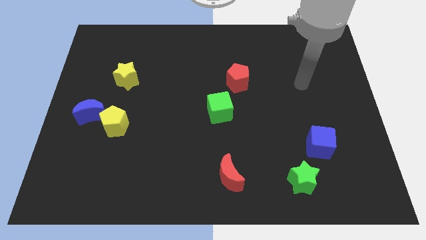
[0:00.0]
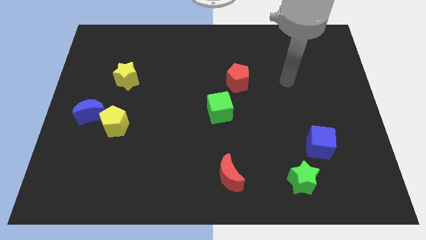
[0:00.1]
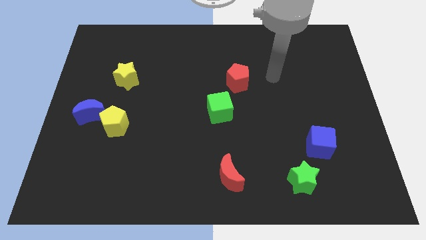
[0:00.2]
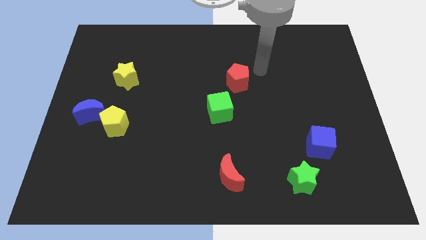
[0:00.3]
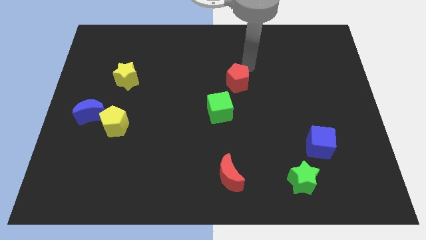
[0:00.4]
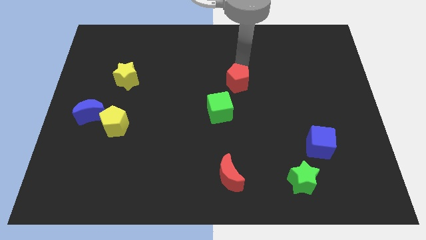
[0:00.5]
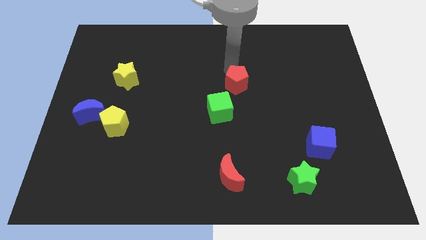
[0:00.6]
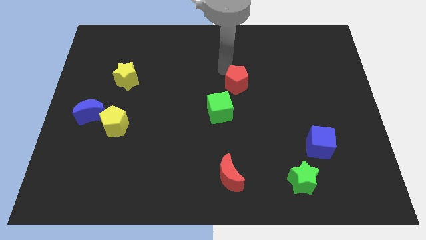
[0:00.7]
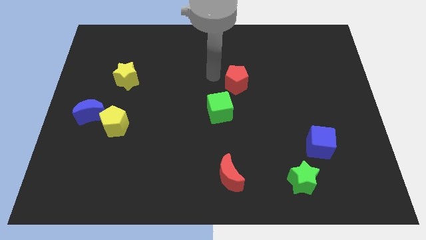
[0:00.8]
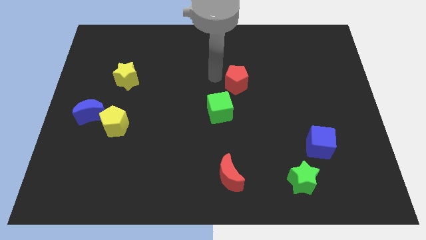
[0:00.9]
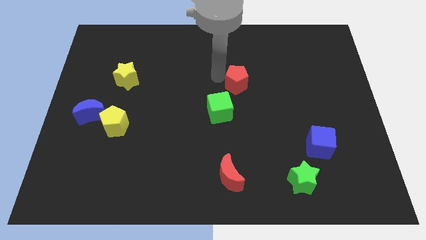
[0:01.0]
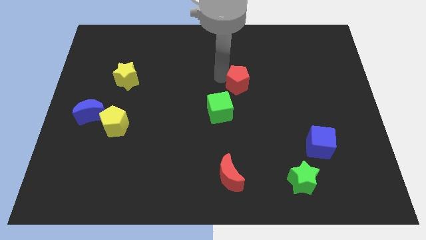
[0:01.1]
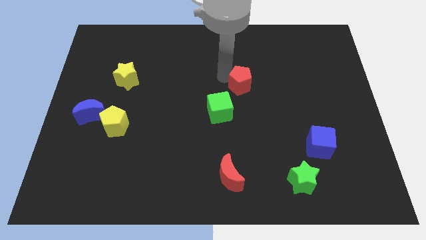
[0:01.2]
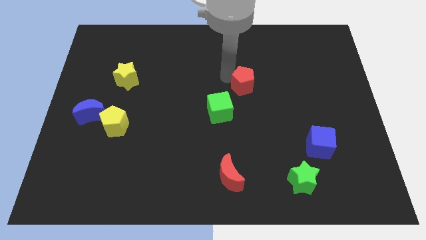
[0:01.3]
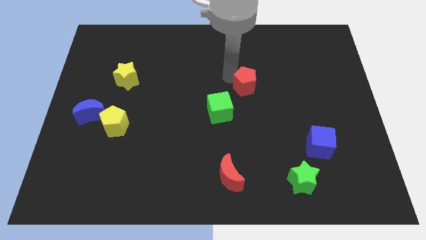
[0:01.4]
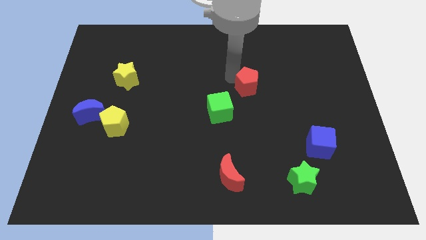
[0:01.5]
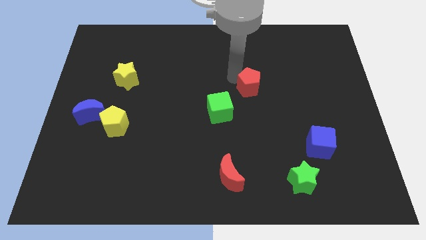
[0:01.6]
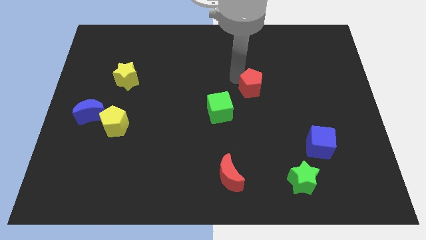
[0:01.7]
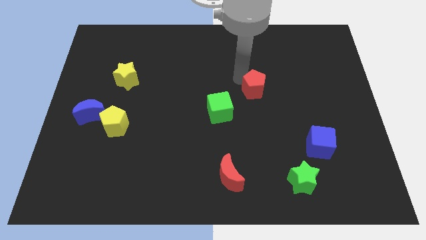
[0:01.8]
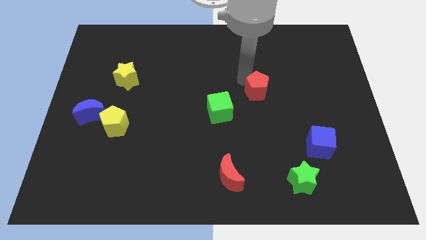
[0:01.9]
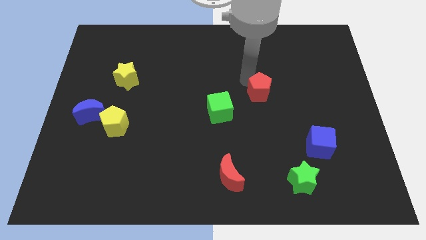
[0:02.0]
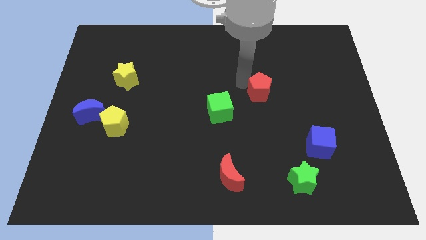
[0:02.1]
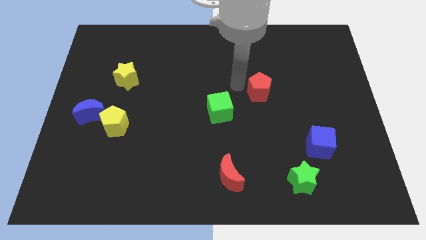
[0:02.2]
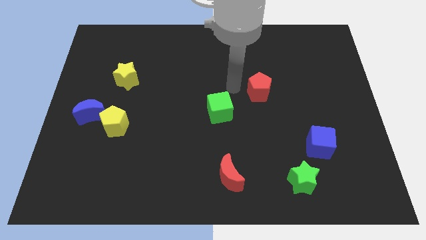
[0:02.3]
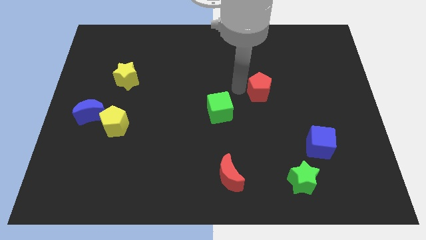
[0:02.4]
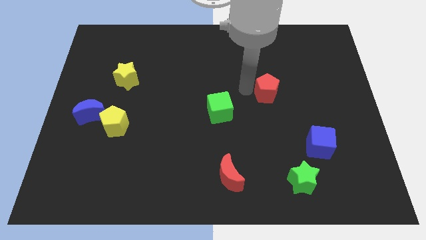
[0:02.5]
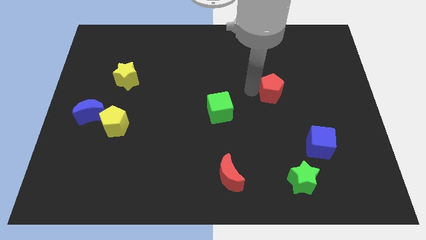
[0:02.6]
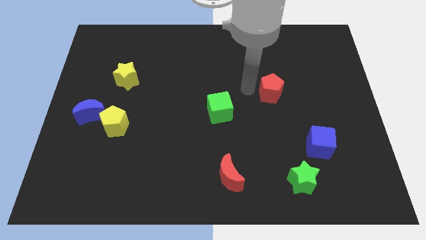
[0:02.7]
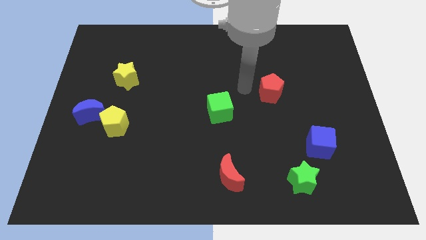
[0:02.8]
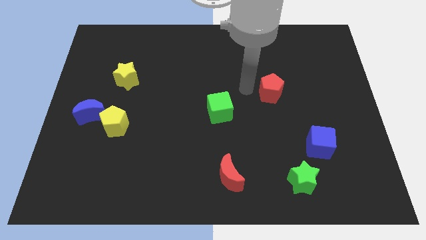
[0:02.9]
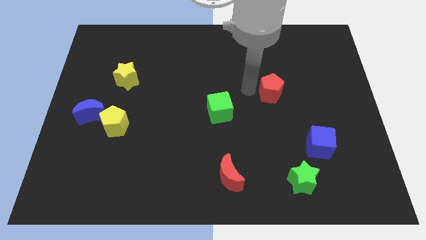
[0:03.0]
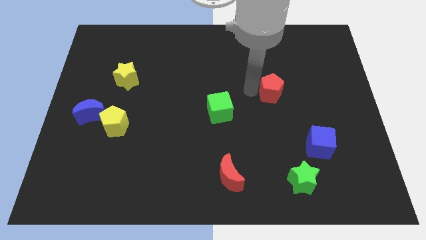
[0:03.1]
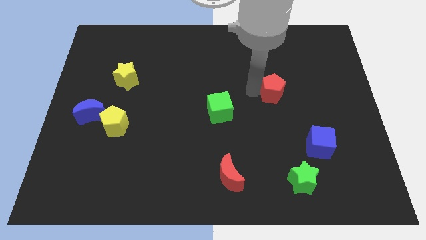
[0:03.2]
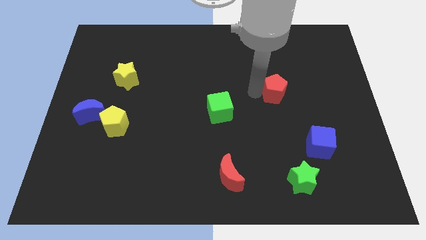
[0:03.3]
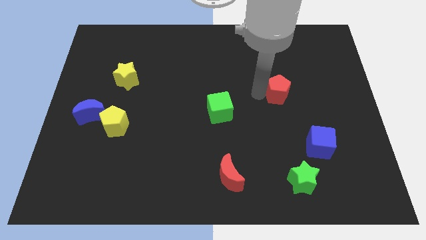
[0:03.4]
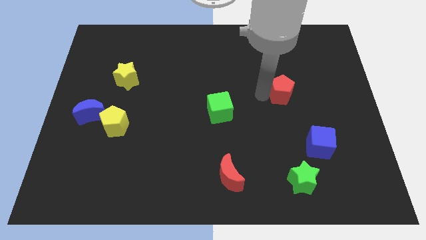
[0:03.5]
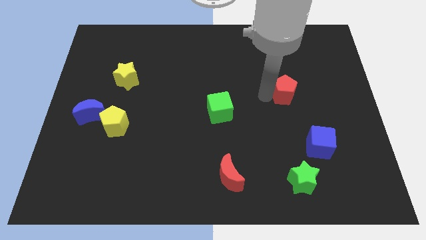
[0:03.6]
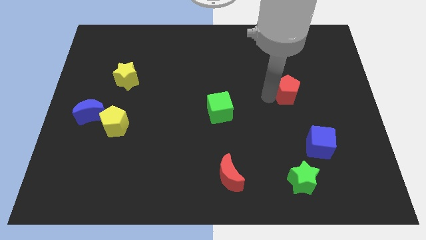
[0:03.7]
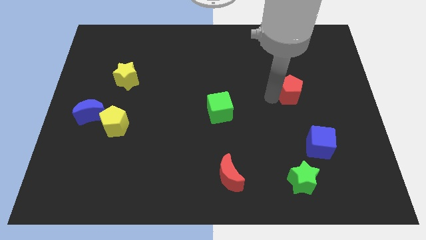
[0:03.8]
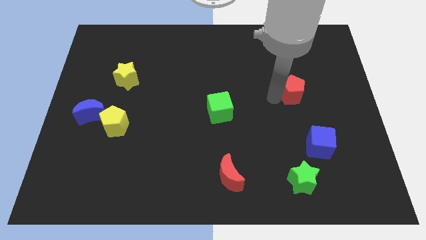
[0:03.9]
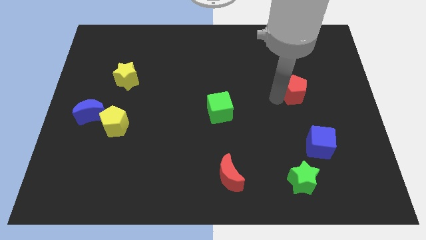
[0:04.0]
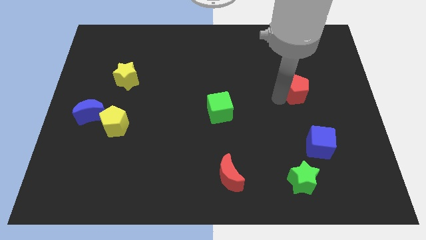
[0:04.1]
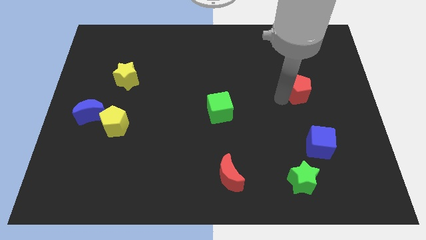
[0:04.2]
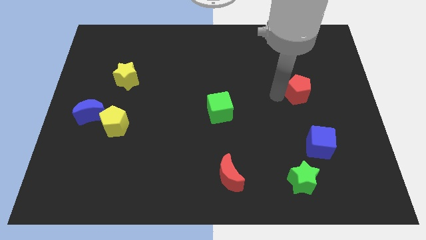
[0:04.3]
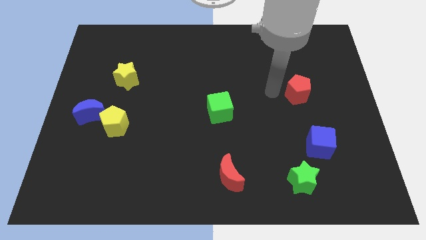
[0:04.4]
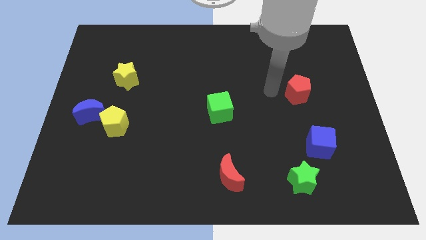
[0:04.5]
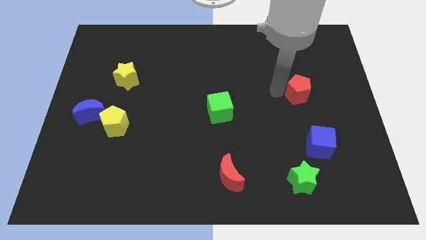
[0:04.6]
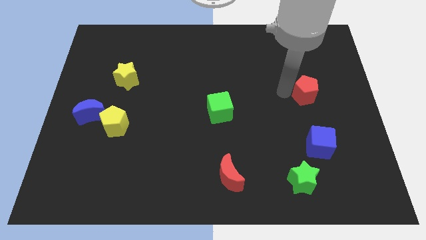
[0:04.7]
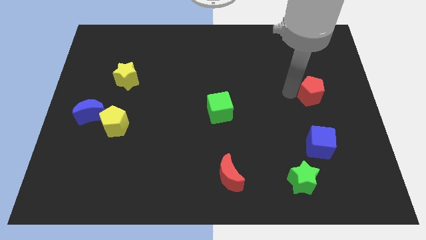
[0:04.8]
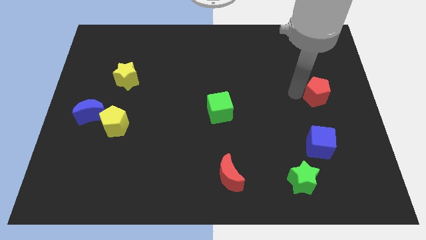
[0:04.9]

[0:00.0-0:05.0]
push the red pentagon to the right side of the board

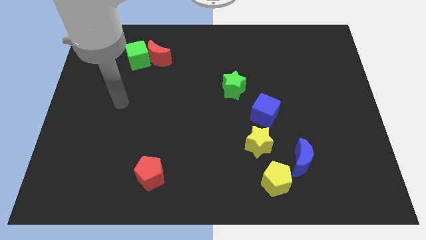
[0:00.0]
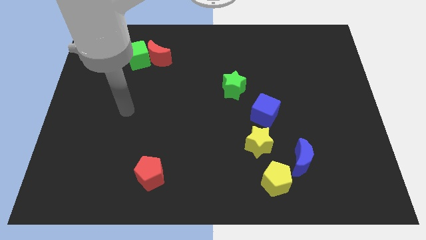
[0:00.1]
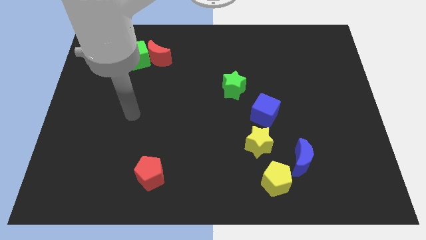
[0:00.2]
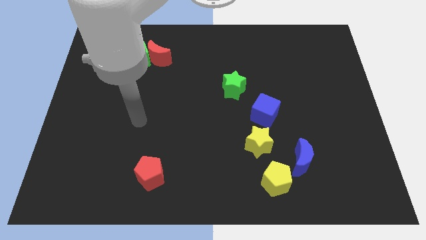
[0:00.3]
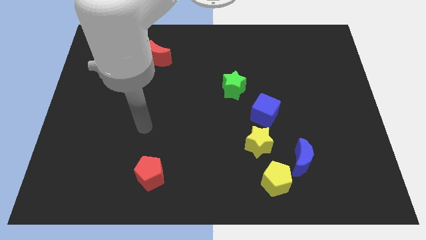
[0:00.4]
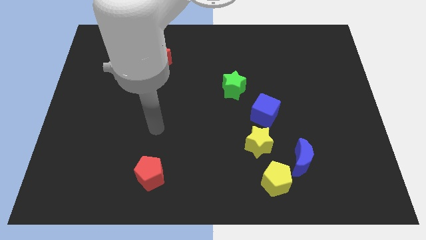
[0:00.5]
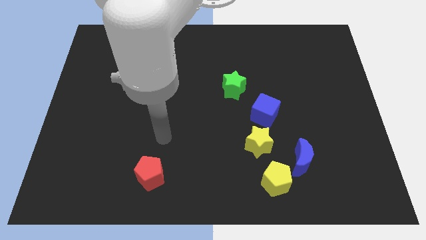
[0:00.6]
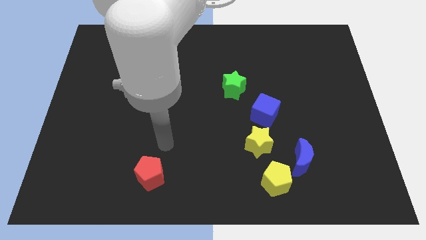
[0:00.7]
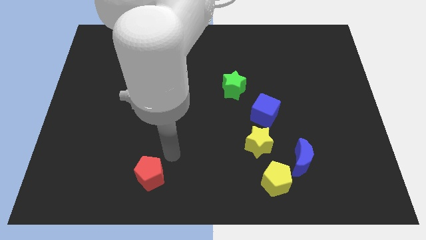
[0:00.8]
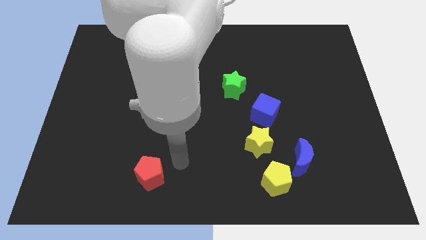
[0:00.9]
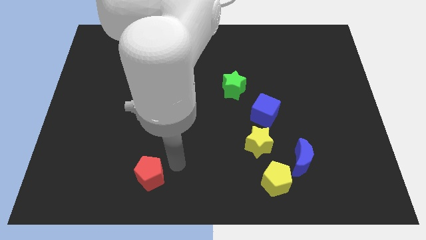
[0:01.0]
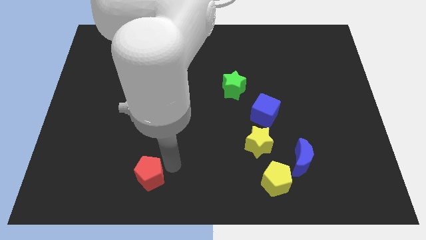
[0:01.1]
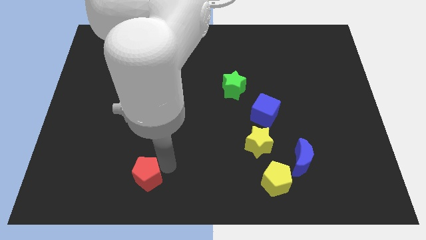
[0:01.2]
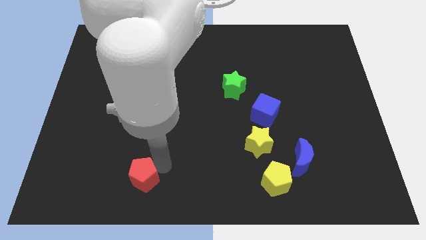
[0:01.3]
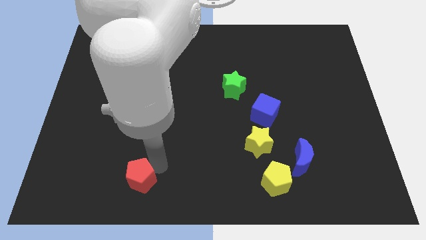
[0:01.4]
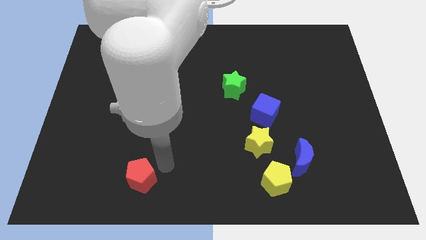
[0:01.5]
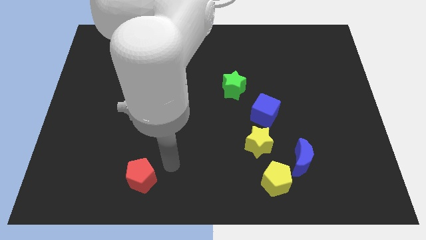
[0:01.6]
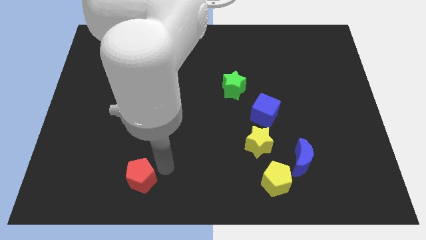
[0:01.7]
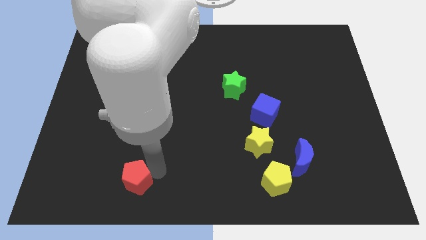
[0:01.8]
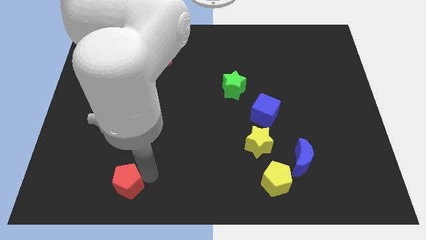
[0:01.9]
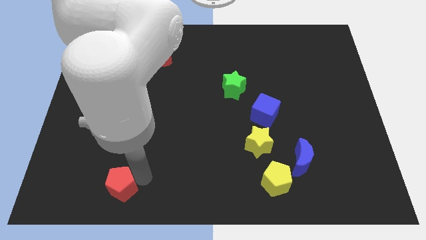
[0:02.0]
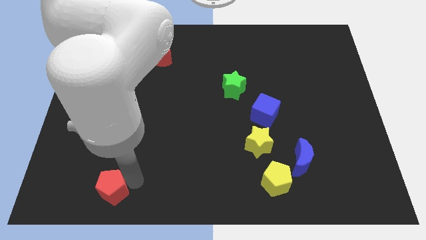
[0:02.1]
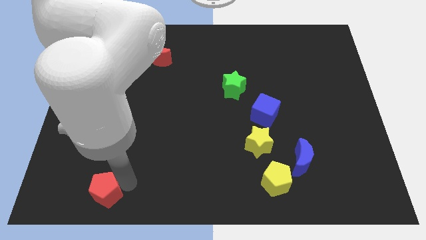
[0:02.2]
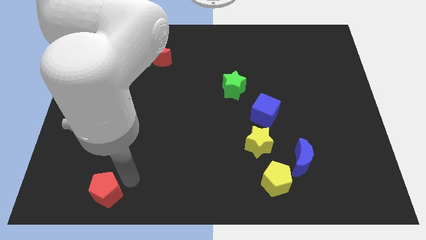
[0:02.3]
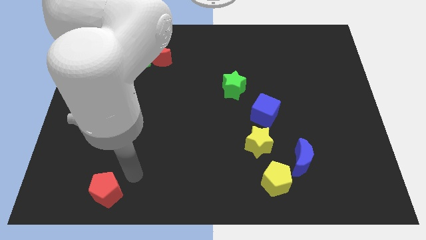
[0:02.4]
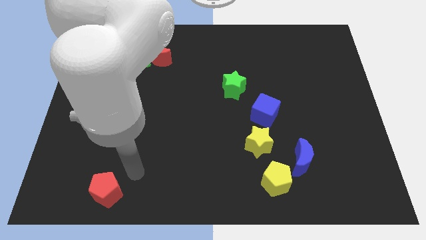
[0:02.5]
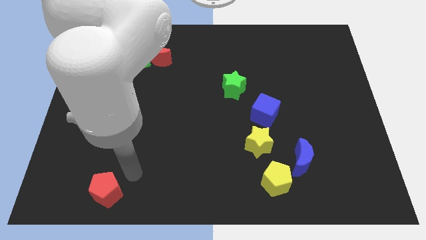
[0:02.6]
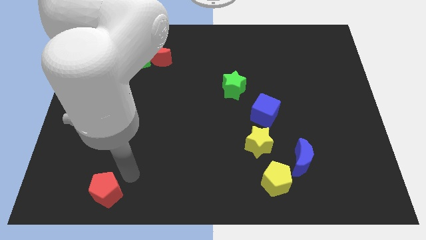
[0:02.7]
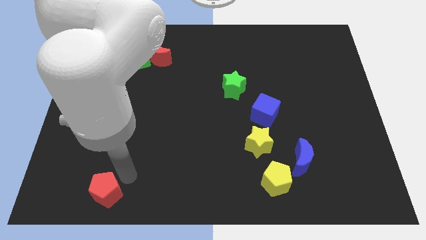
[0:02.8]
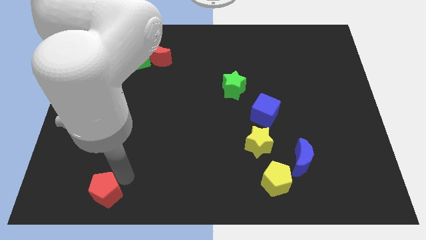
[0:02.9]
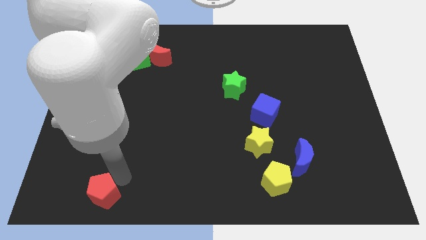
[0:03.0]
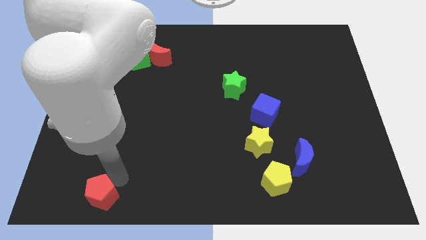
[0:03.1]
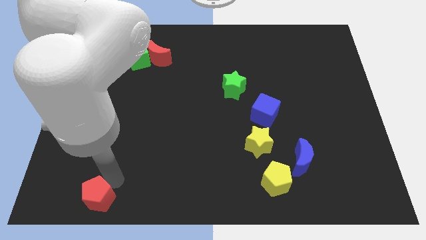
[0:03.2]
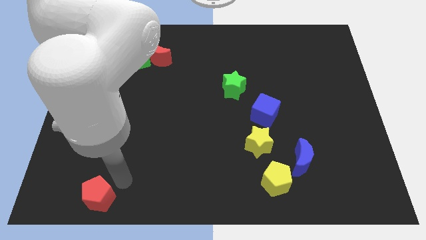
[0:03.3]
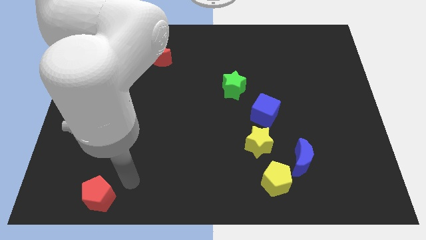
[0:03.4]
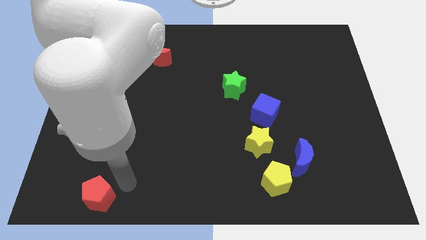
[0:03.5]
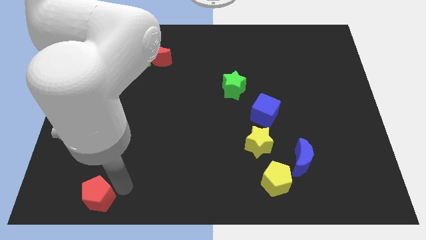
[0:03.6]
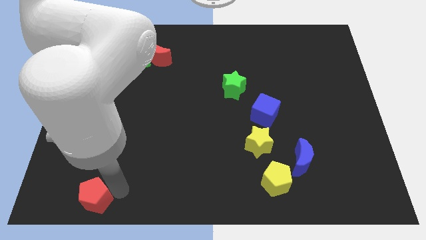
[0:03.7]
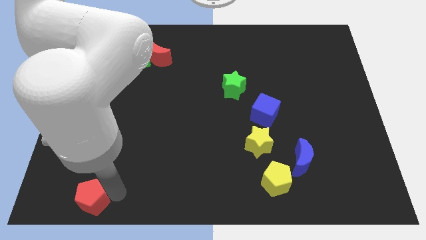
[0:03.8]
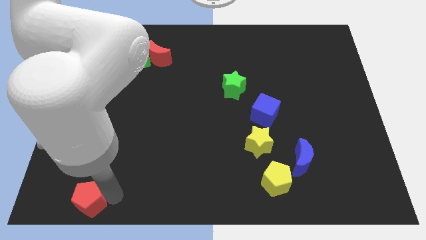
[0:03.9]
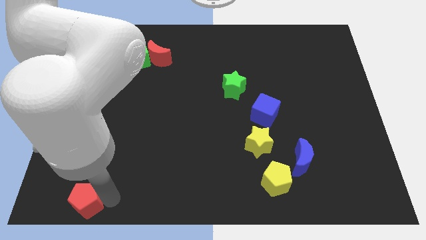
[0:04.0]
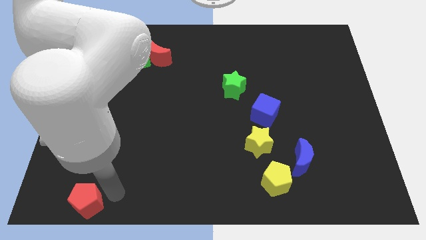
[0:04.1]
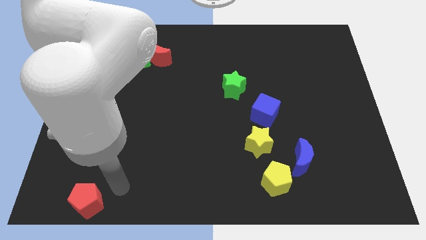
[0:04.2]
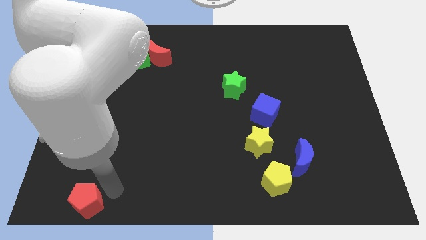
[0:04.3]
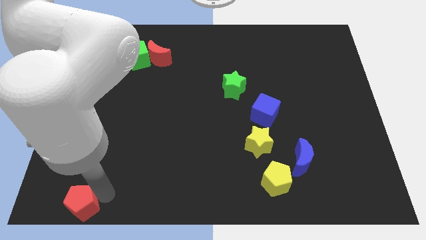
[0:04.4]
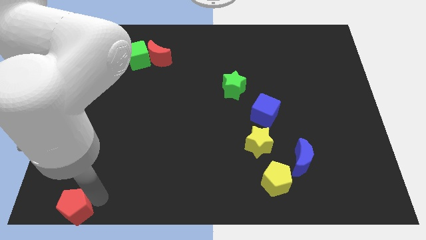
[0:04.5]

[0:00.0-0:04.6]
move the red pentagon to the bottom left of the board
